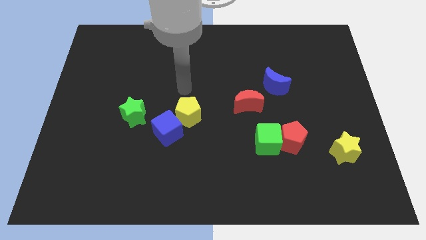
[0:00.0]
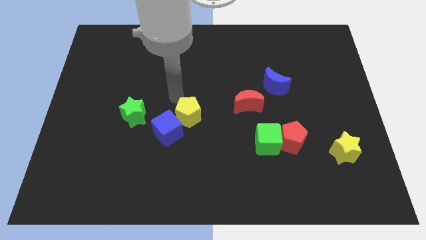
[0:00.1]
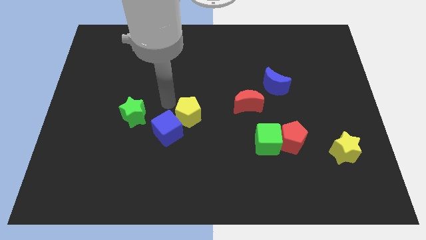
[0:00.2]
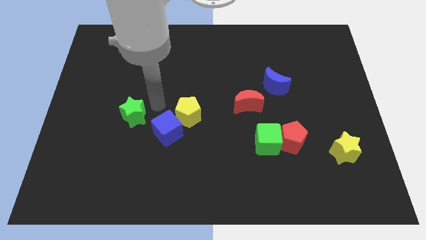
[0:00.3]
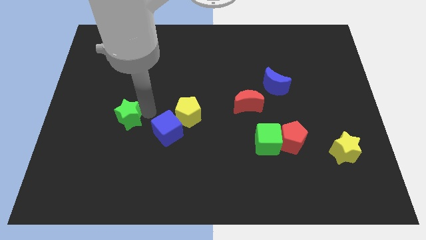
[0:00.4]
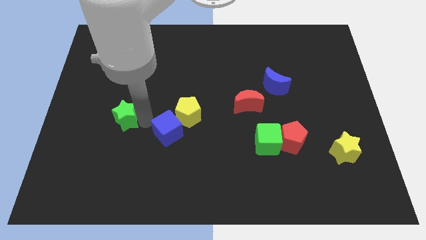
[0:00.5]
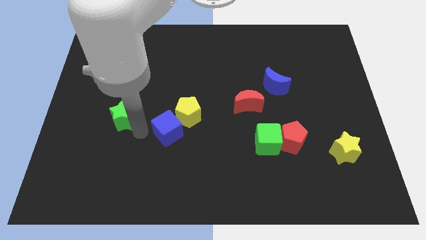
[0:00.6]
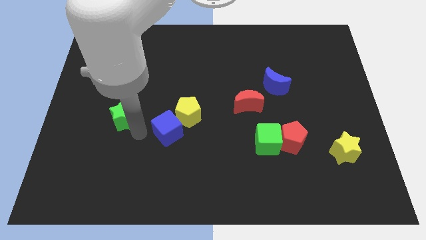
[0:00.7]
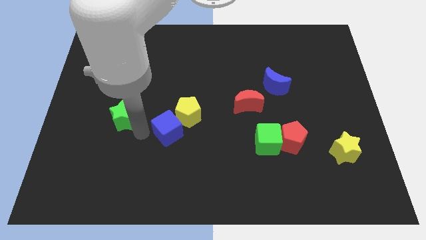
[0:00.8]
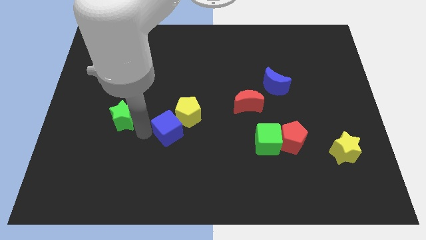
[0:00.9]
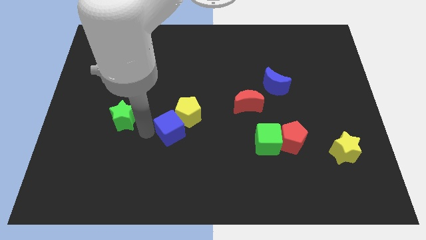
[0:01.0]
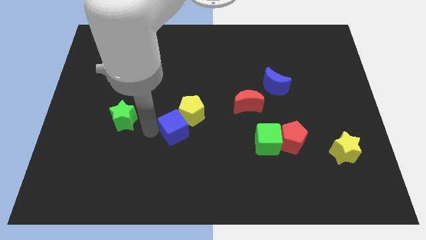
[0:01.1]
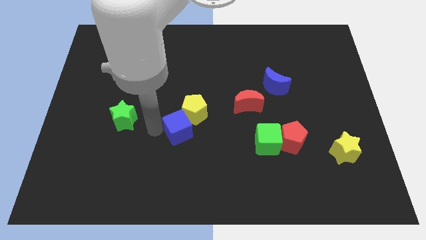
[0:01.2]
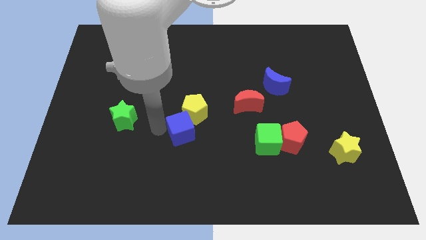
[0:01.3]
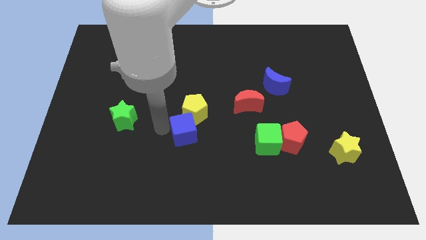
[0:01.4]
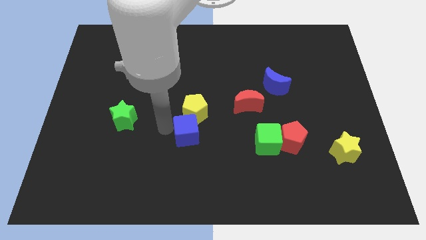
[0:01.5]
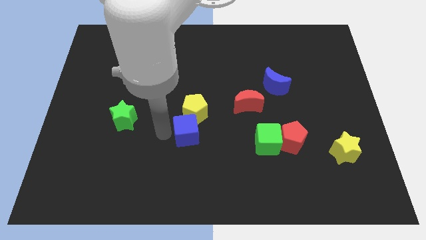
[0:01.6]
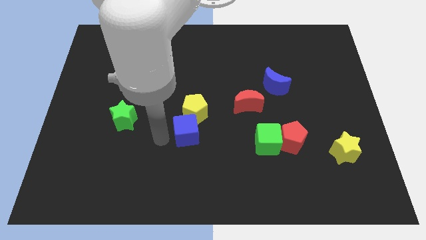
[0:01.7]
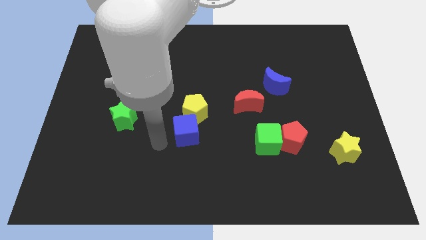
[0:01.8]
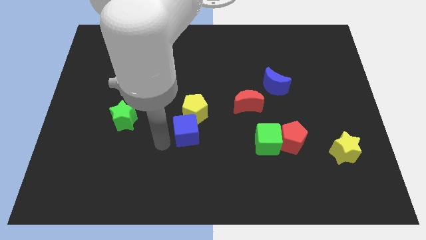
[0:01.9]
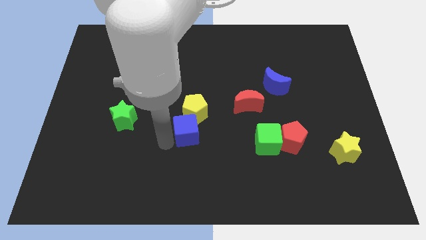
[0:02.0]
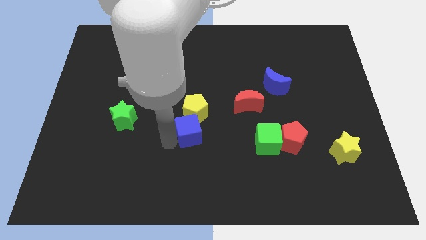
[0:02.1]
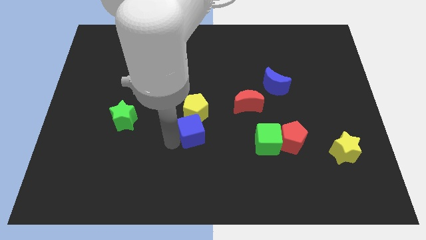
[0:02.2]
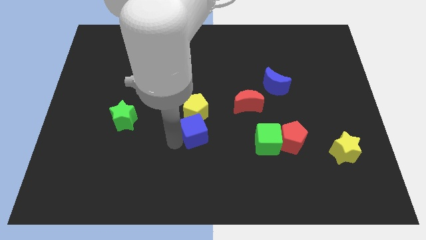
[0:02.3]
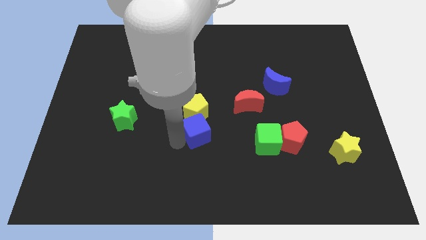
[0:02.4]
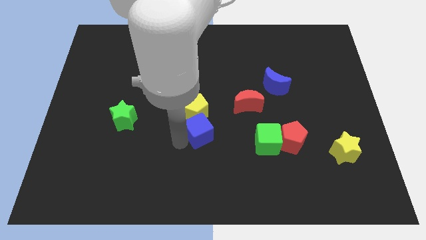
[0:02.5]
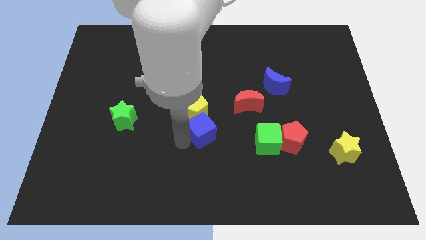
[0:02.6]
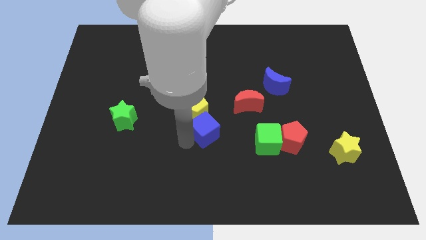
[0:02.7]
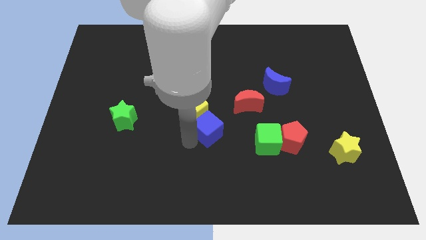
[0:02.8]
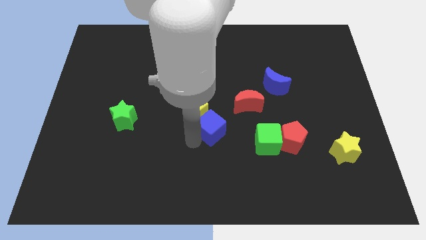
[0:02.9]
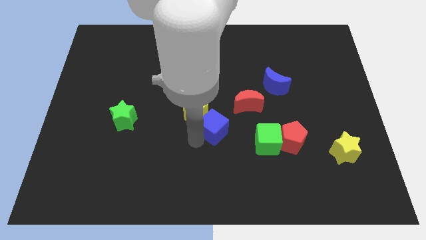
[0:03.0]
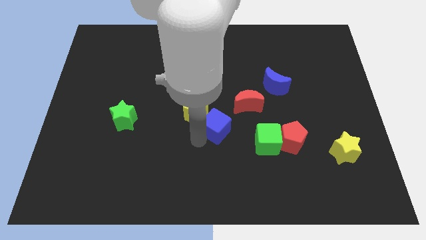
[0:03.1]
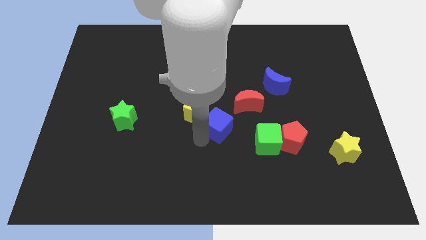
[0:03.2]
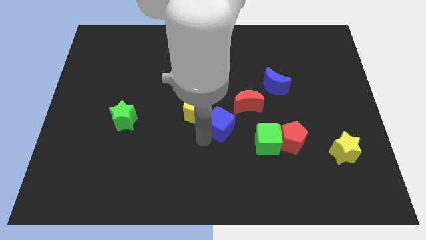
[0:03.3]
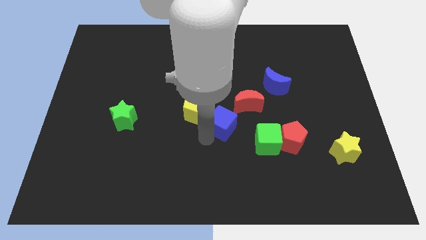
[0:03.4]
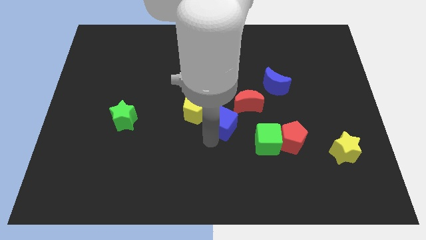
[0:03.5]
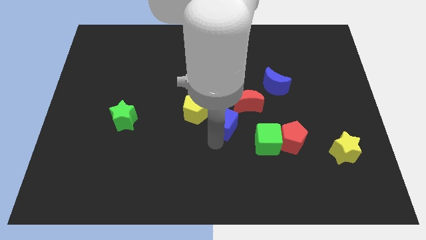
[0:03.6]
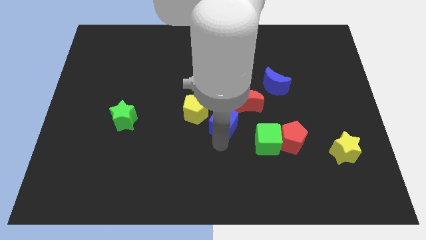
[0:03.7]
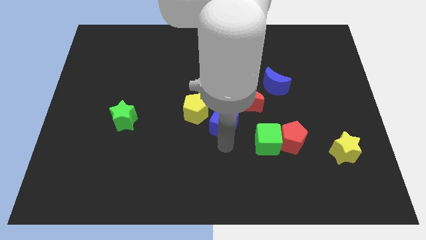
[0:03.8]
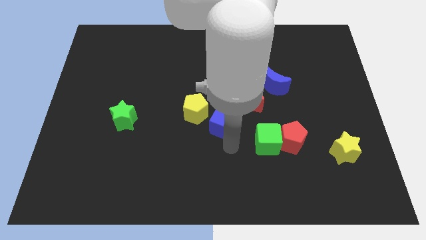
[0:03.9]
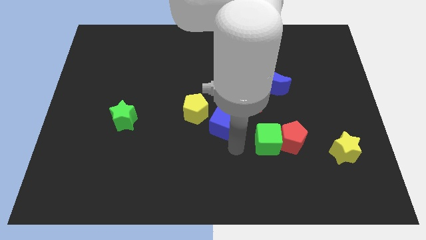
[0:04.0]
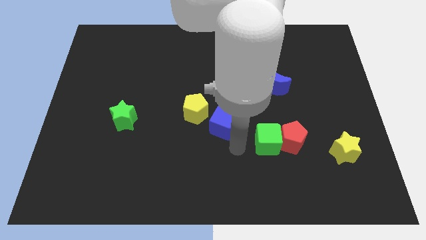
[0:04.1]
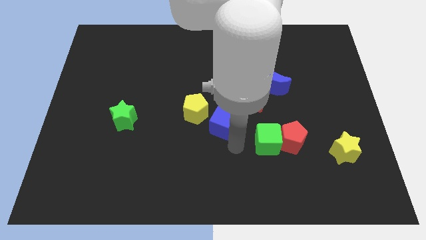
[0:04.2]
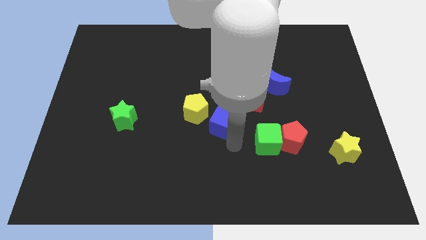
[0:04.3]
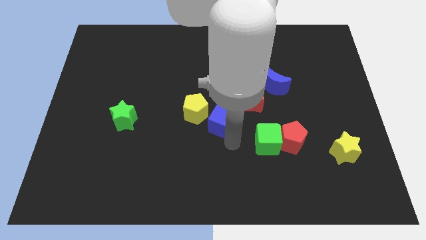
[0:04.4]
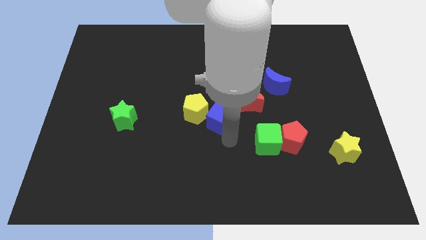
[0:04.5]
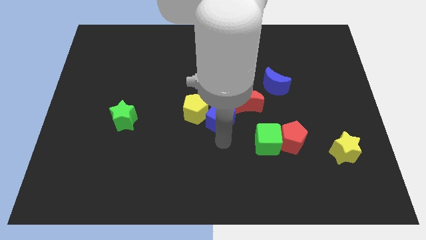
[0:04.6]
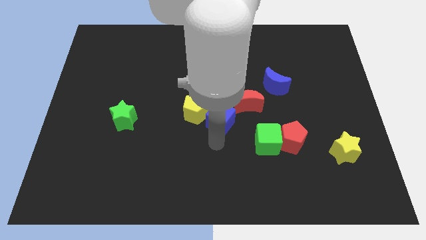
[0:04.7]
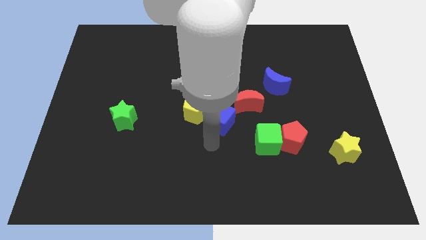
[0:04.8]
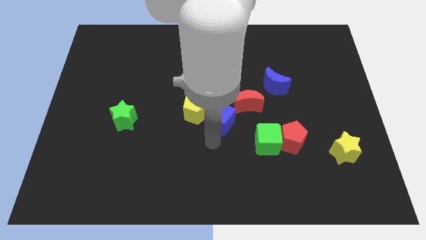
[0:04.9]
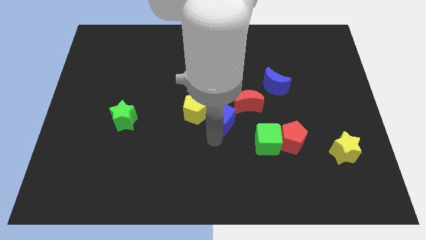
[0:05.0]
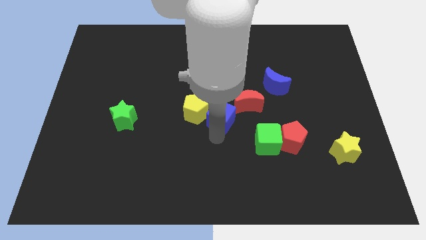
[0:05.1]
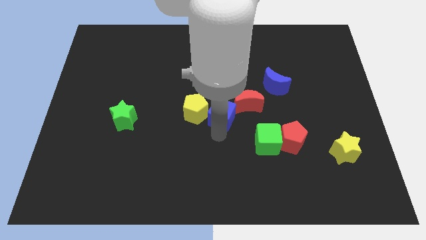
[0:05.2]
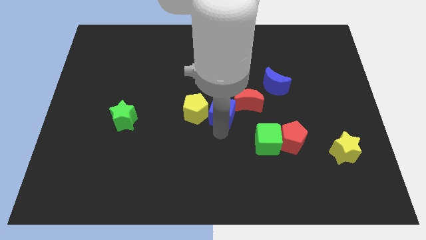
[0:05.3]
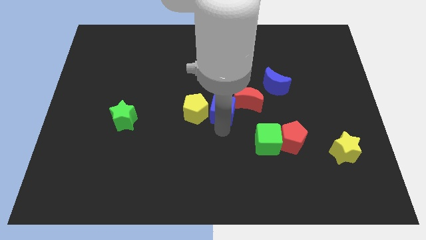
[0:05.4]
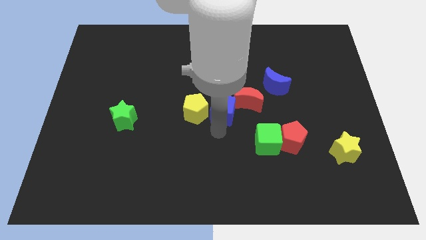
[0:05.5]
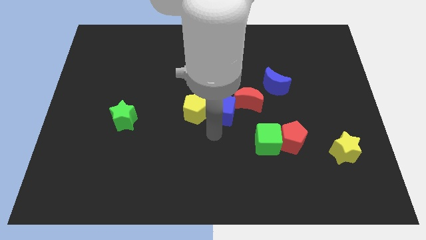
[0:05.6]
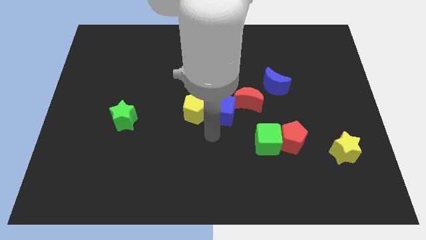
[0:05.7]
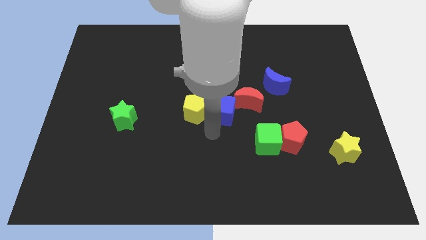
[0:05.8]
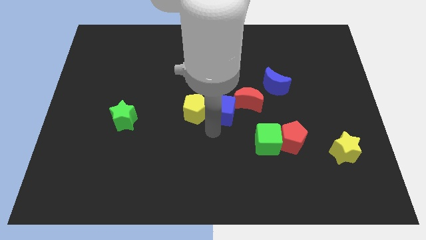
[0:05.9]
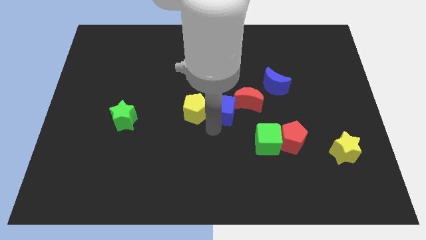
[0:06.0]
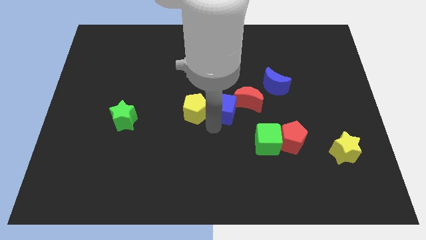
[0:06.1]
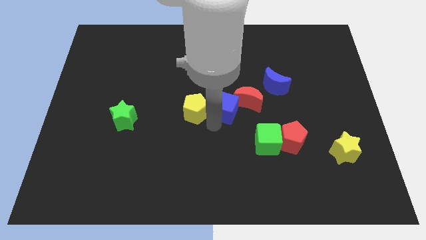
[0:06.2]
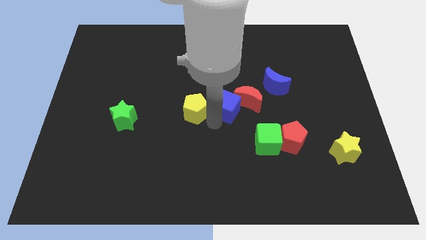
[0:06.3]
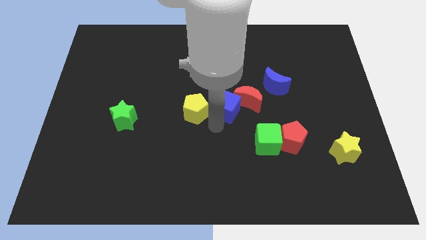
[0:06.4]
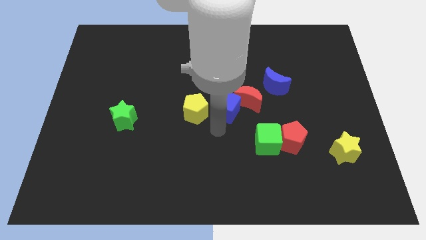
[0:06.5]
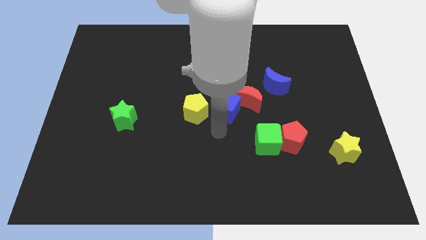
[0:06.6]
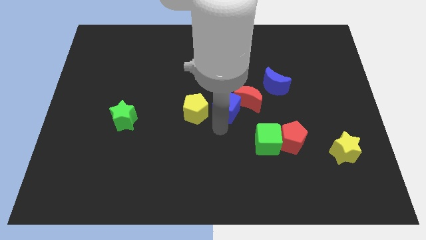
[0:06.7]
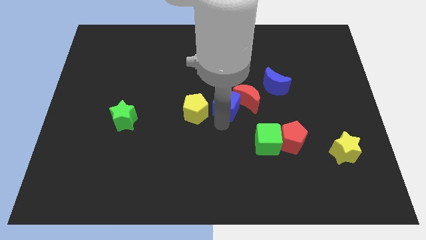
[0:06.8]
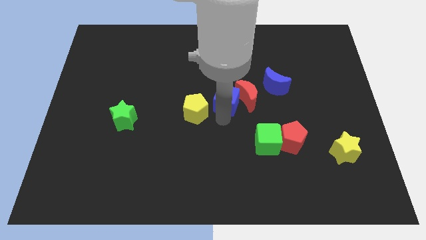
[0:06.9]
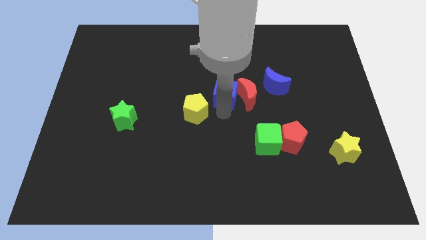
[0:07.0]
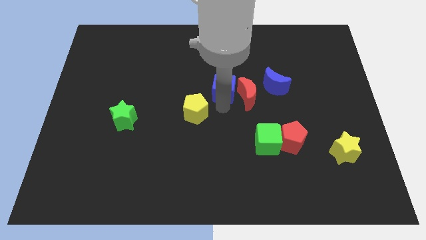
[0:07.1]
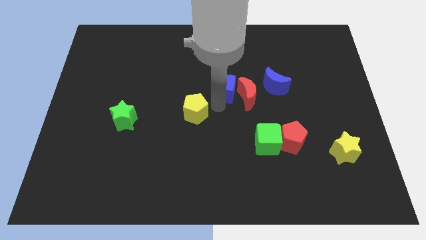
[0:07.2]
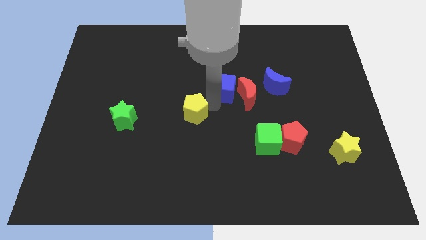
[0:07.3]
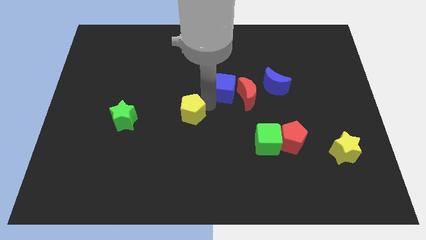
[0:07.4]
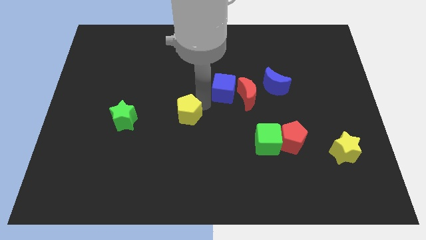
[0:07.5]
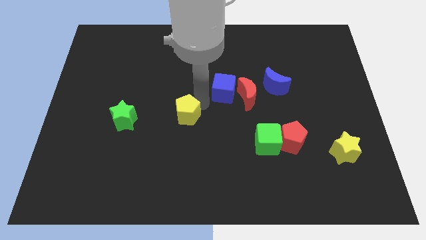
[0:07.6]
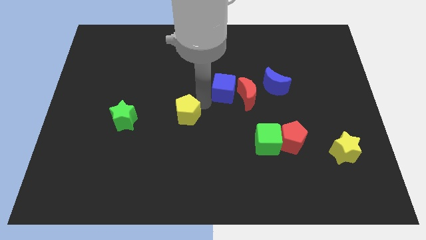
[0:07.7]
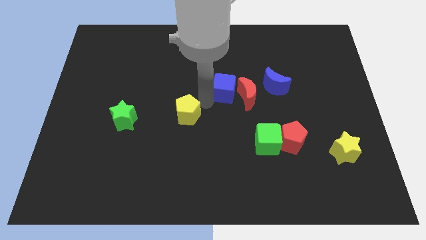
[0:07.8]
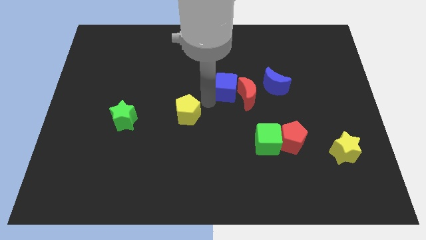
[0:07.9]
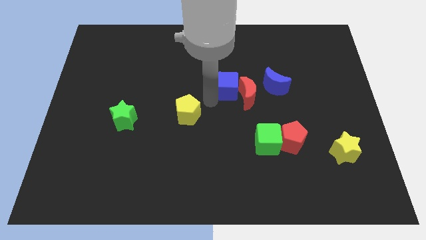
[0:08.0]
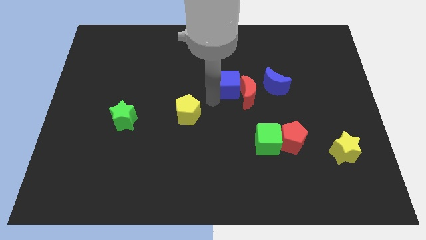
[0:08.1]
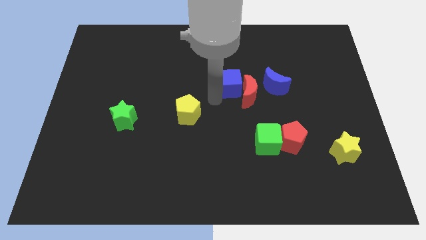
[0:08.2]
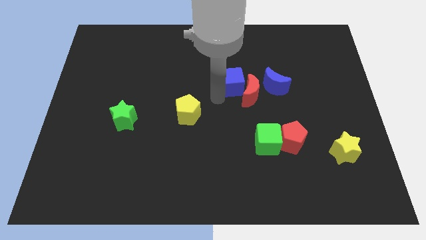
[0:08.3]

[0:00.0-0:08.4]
push the blue cube upwards and to the right
